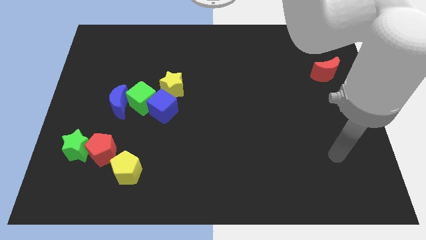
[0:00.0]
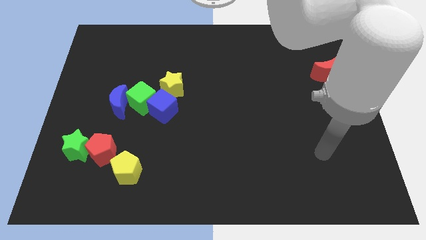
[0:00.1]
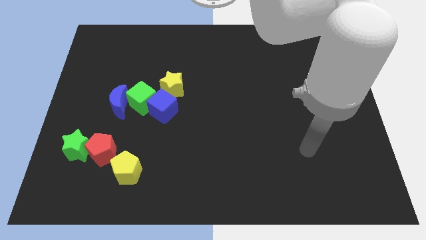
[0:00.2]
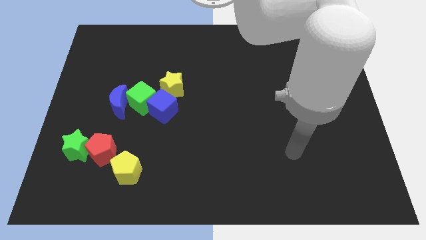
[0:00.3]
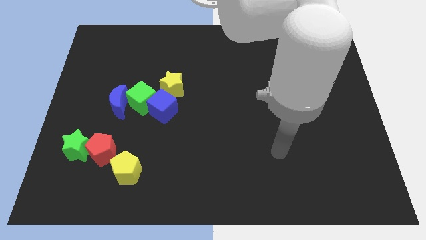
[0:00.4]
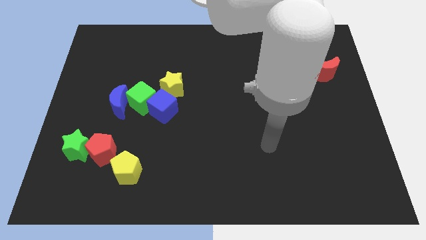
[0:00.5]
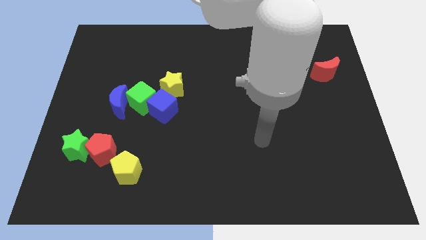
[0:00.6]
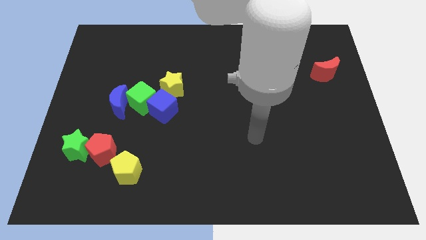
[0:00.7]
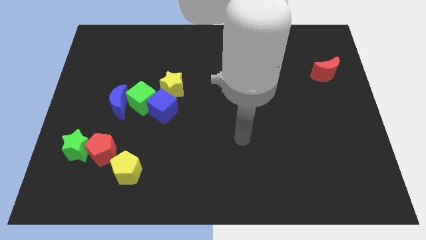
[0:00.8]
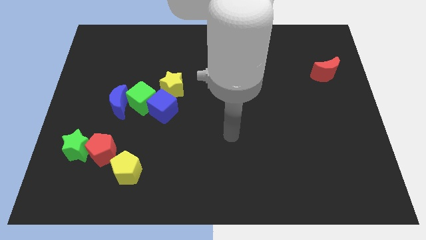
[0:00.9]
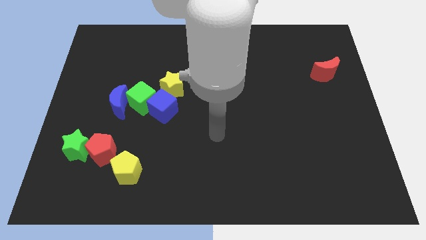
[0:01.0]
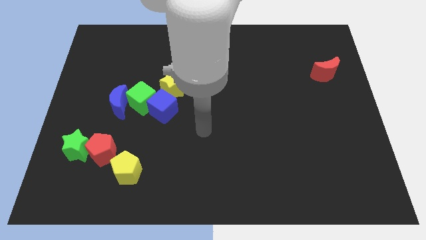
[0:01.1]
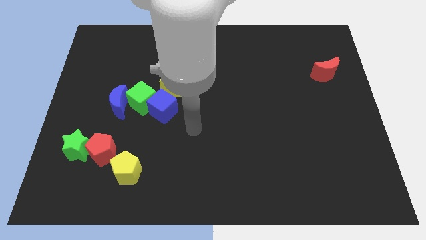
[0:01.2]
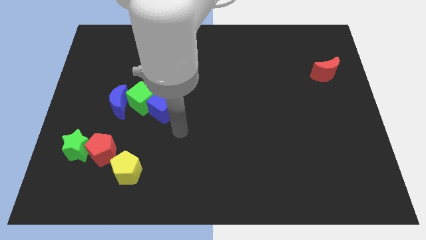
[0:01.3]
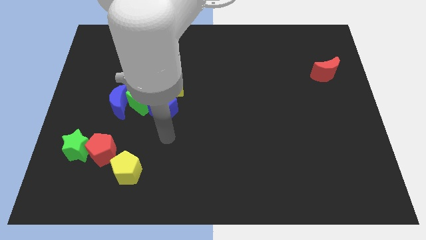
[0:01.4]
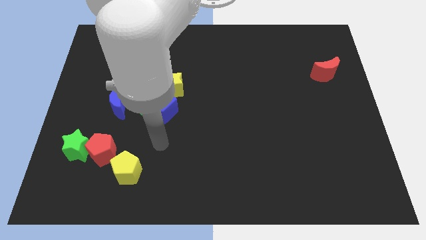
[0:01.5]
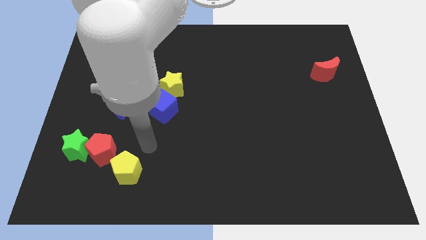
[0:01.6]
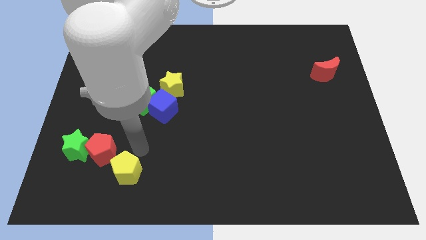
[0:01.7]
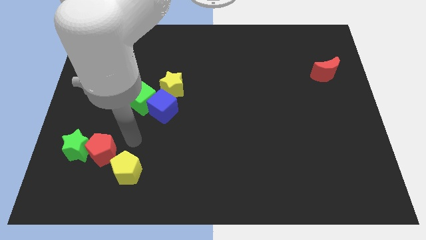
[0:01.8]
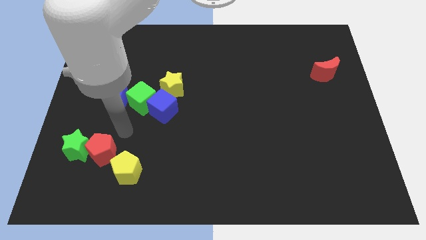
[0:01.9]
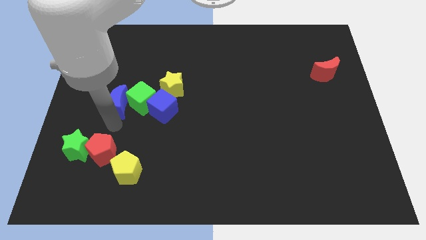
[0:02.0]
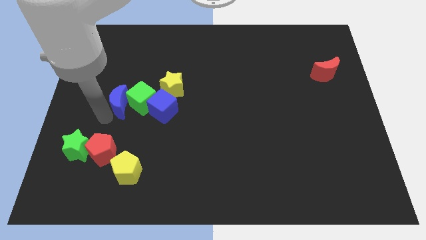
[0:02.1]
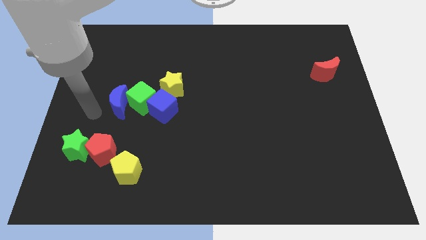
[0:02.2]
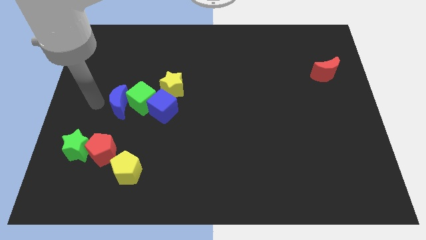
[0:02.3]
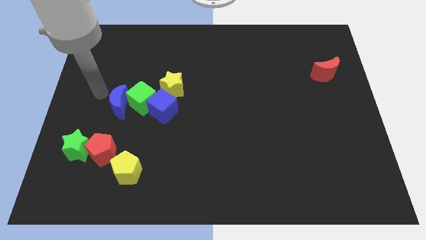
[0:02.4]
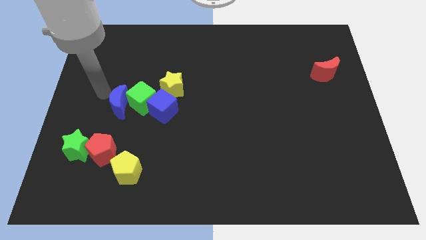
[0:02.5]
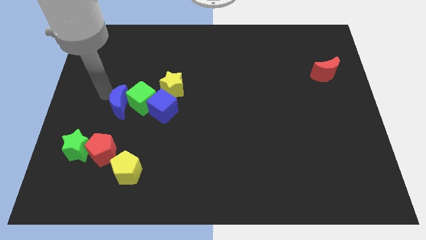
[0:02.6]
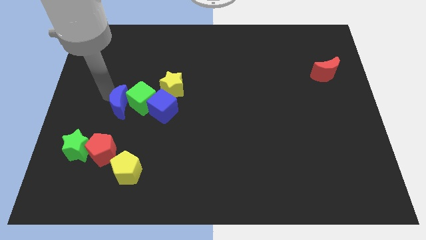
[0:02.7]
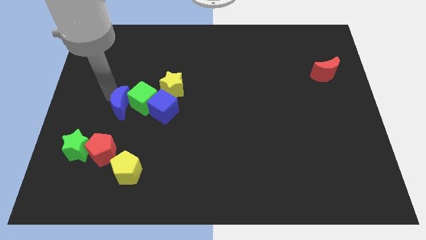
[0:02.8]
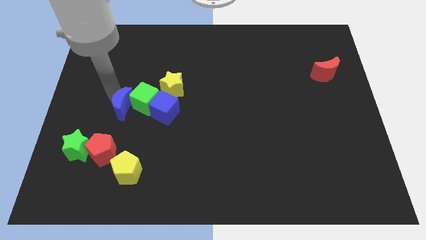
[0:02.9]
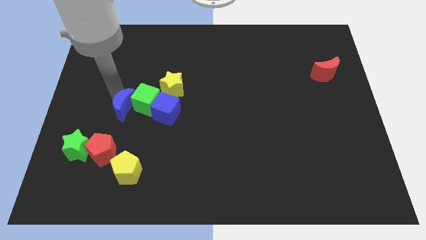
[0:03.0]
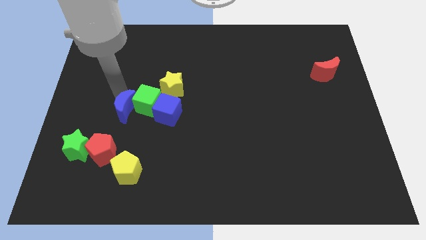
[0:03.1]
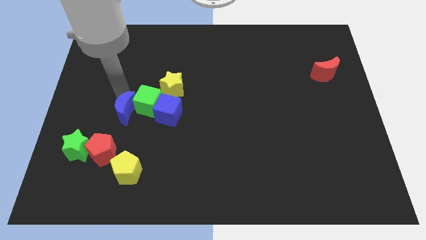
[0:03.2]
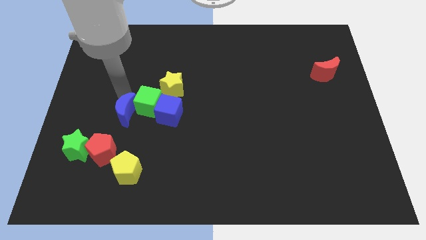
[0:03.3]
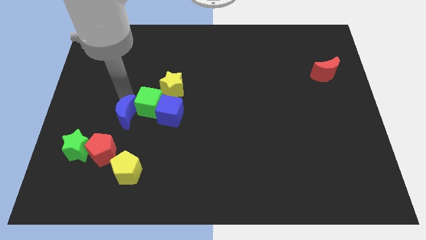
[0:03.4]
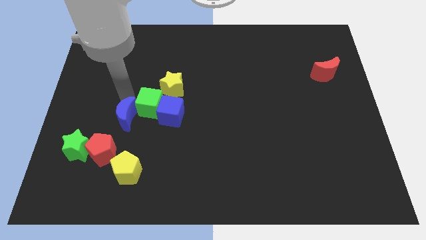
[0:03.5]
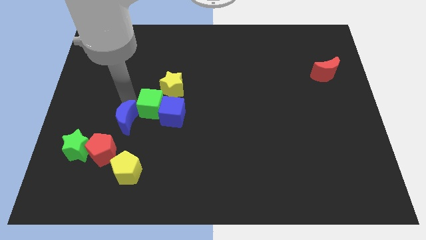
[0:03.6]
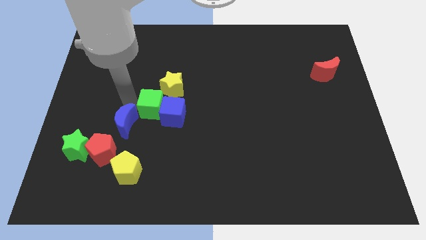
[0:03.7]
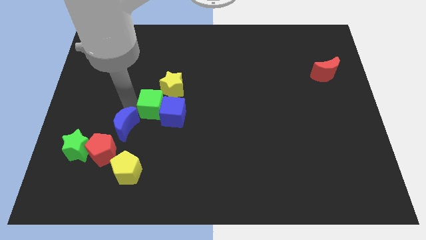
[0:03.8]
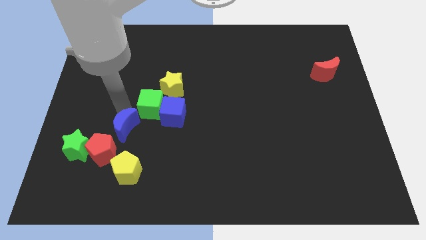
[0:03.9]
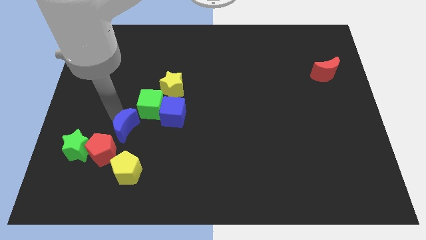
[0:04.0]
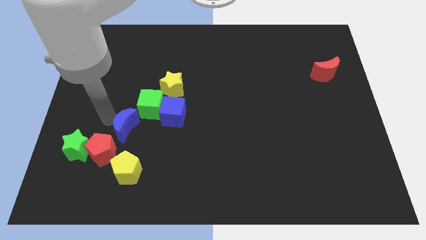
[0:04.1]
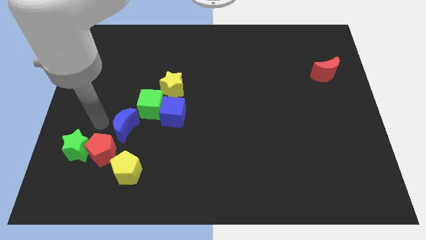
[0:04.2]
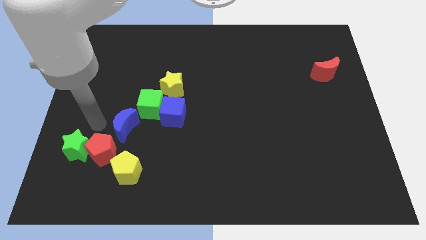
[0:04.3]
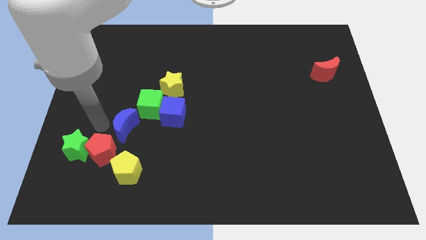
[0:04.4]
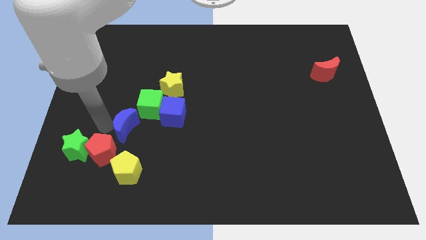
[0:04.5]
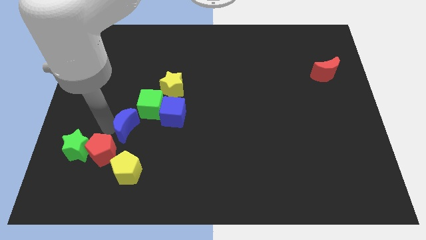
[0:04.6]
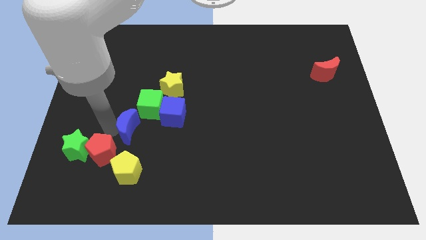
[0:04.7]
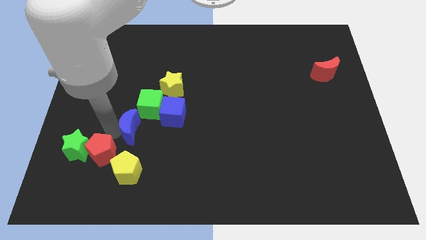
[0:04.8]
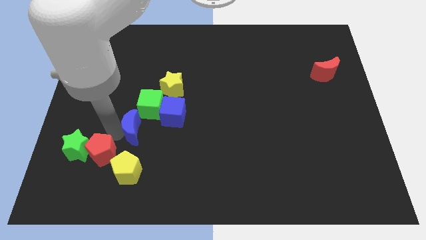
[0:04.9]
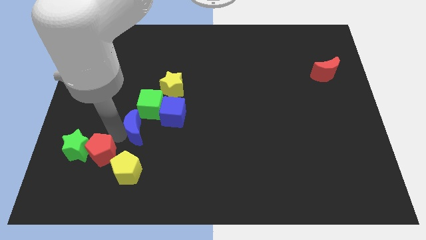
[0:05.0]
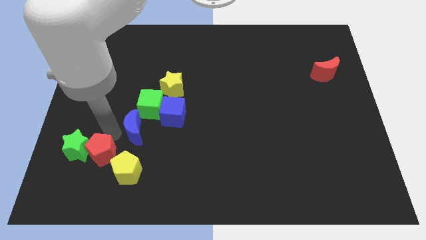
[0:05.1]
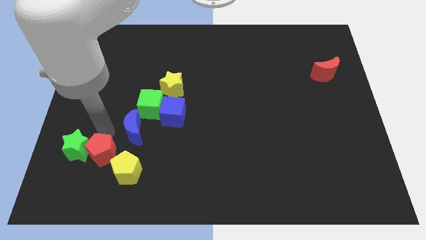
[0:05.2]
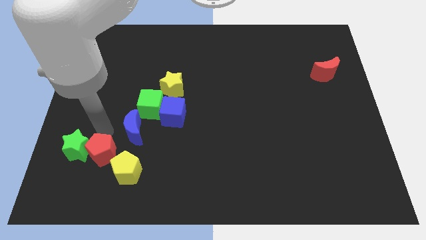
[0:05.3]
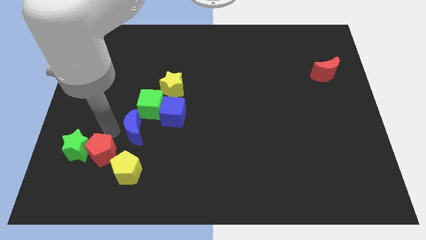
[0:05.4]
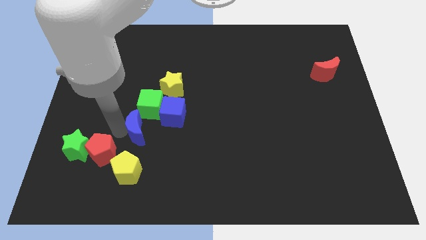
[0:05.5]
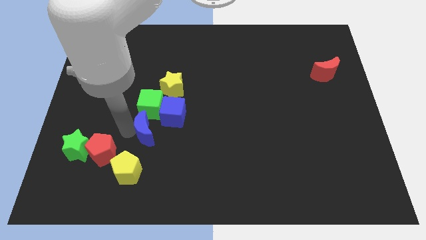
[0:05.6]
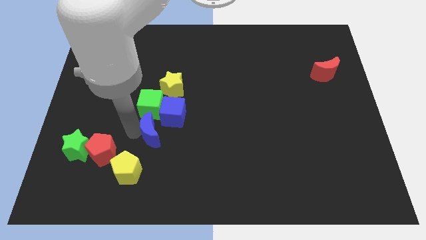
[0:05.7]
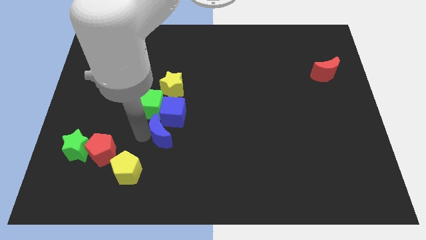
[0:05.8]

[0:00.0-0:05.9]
slide the blue moon slightly to the right

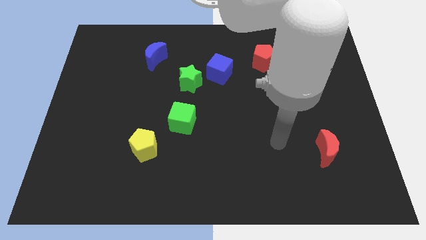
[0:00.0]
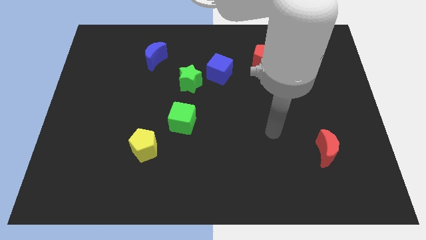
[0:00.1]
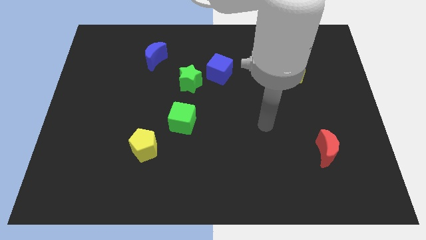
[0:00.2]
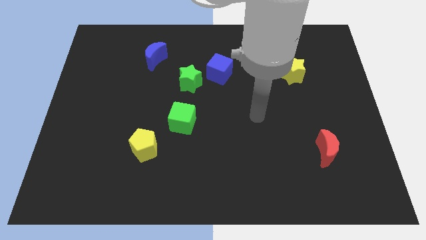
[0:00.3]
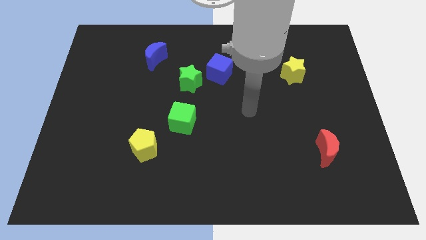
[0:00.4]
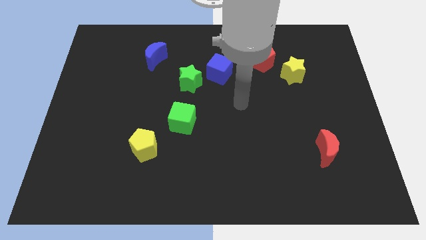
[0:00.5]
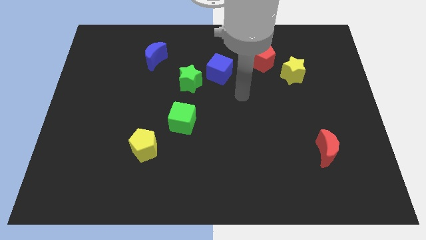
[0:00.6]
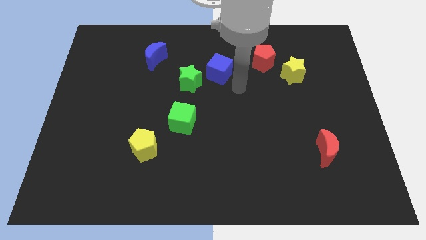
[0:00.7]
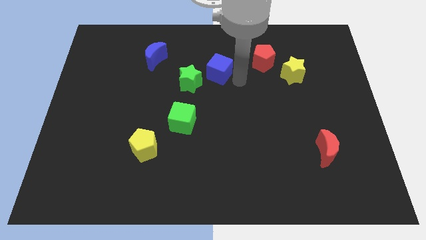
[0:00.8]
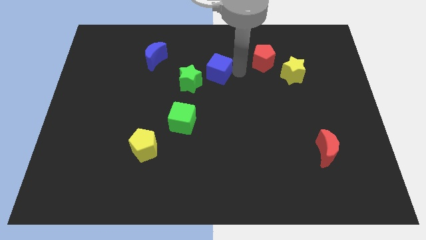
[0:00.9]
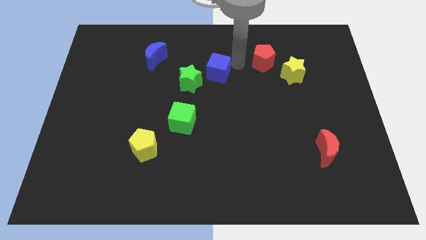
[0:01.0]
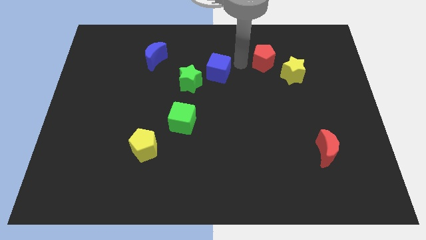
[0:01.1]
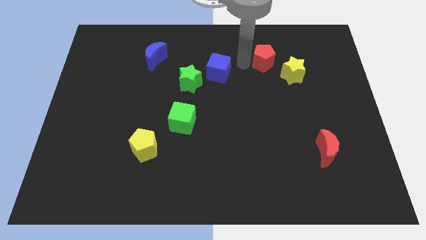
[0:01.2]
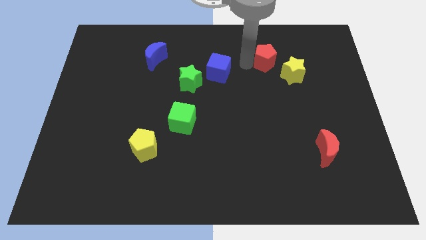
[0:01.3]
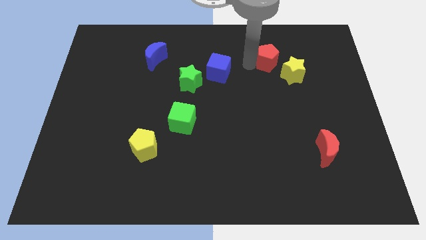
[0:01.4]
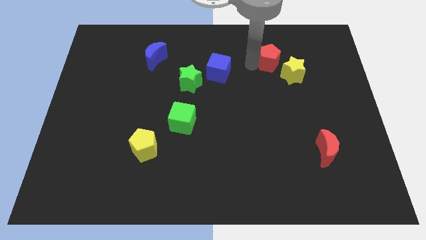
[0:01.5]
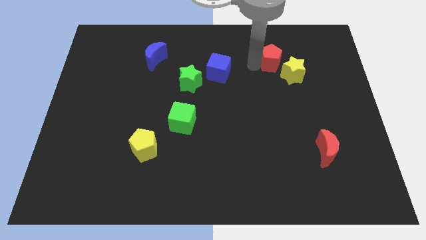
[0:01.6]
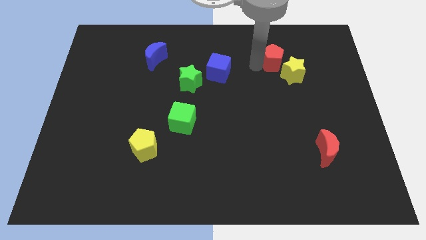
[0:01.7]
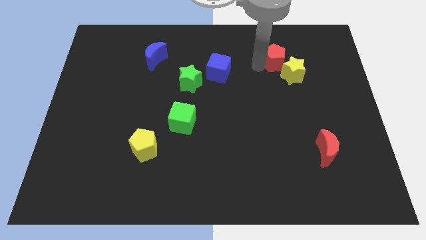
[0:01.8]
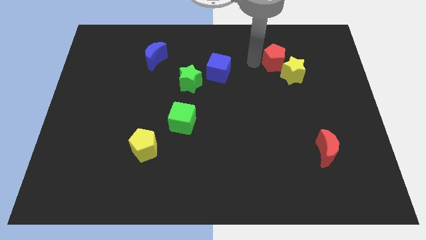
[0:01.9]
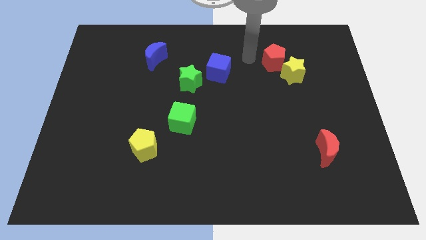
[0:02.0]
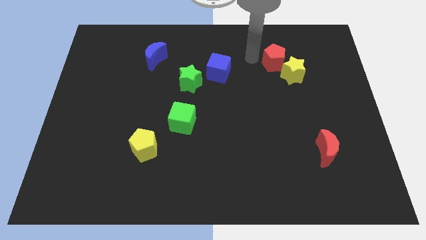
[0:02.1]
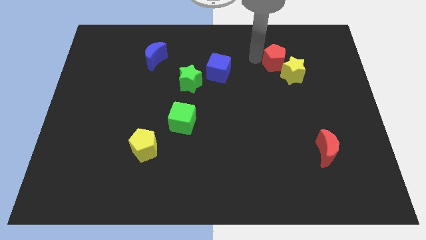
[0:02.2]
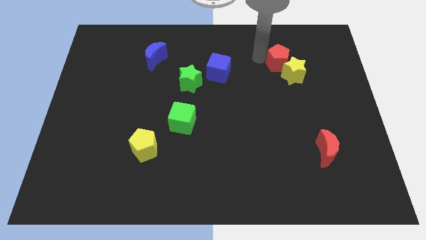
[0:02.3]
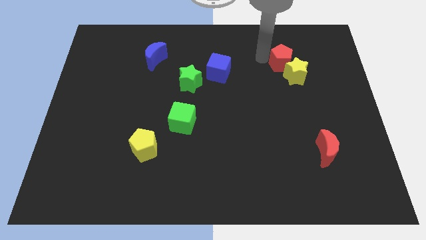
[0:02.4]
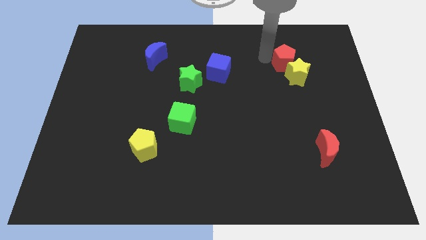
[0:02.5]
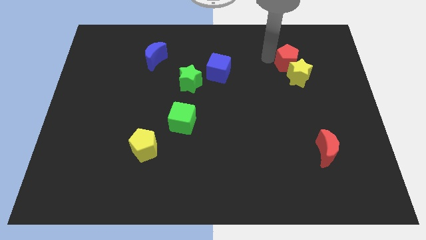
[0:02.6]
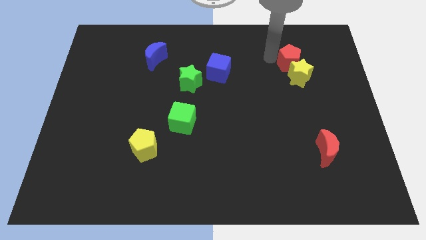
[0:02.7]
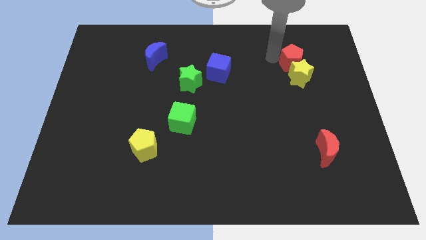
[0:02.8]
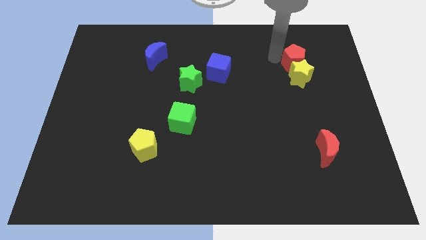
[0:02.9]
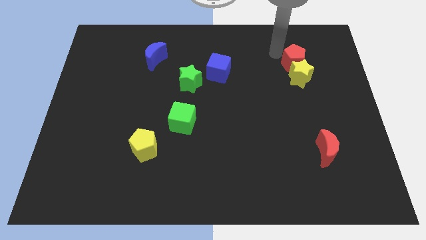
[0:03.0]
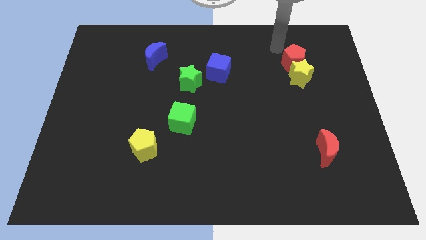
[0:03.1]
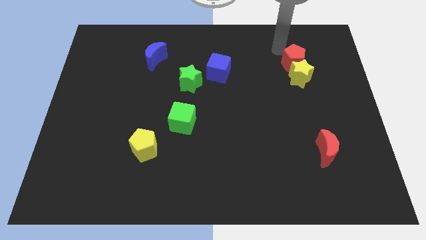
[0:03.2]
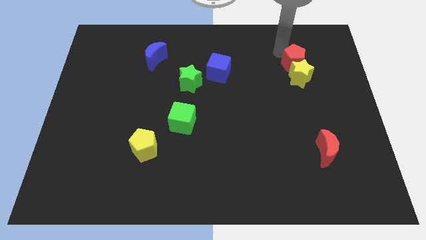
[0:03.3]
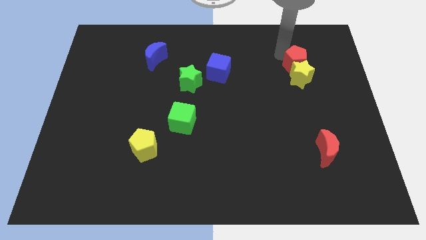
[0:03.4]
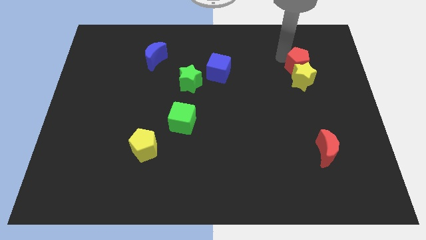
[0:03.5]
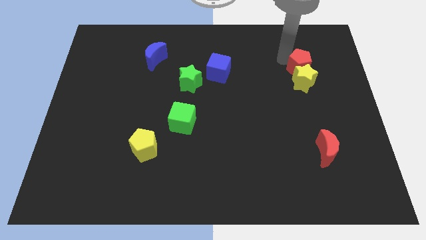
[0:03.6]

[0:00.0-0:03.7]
move the red pentagon slightly down and right
